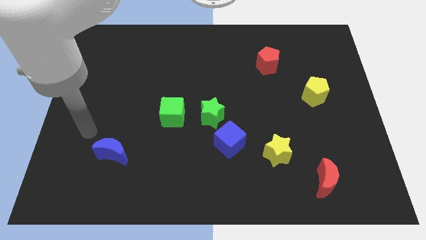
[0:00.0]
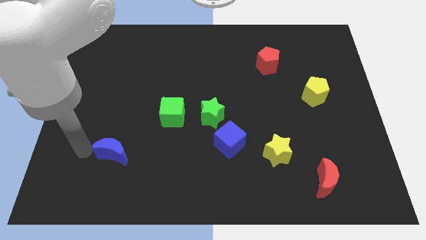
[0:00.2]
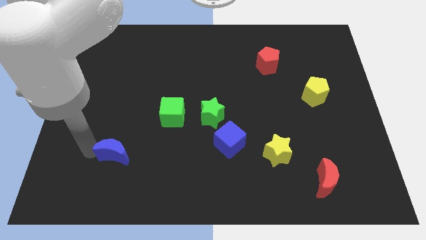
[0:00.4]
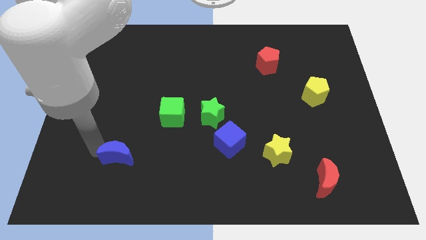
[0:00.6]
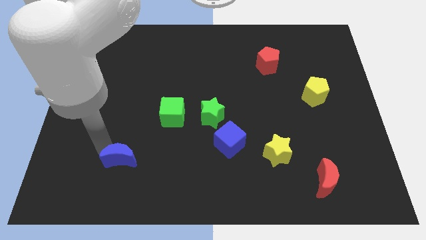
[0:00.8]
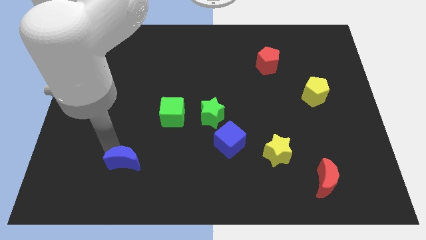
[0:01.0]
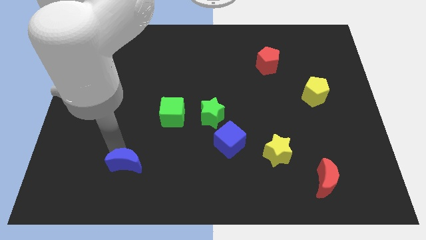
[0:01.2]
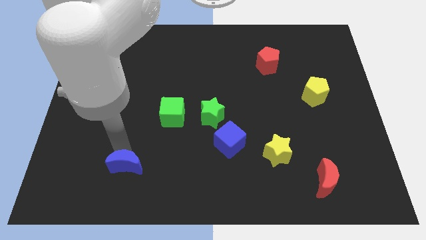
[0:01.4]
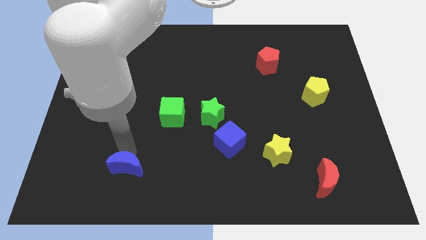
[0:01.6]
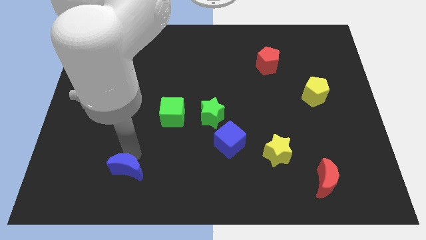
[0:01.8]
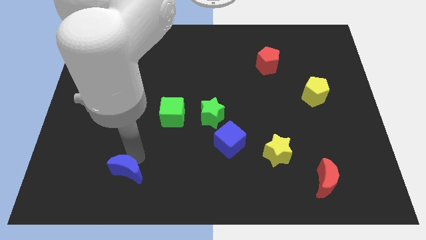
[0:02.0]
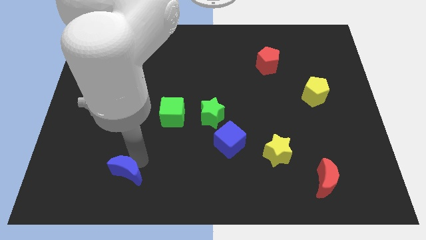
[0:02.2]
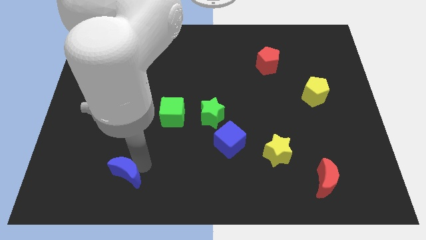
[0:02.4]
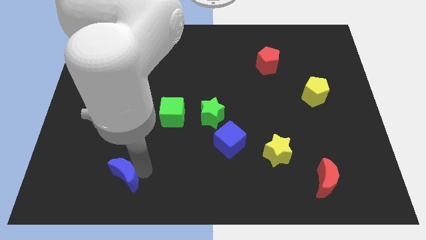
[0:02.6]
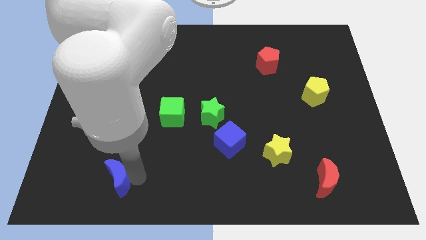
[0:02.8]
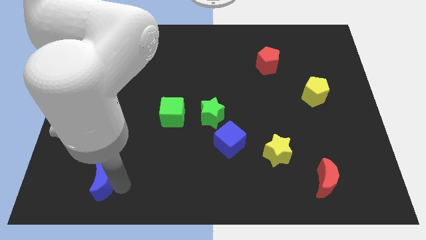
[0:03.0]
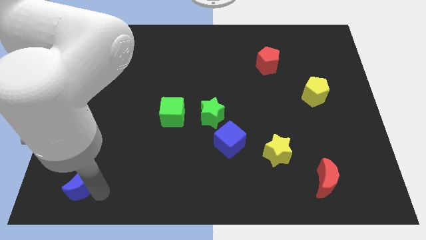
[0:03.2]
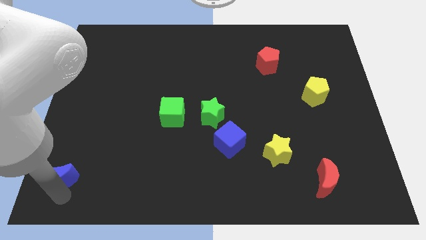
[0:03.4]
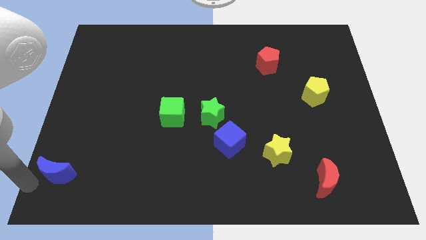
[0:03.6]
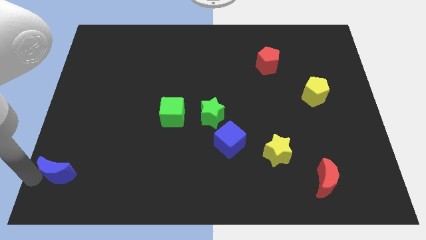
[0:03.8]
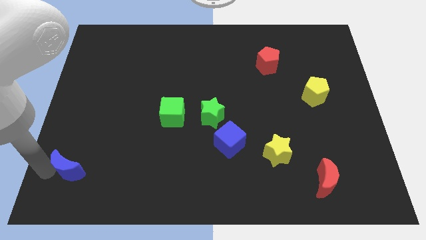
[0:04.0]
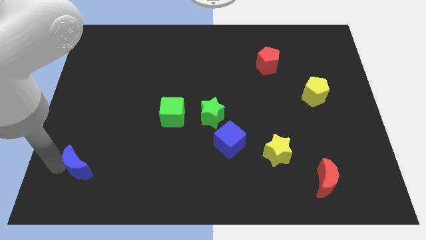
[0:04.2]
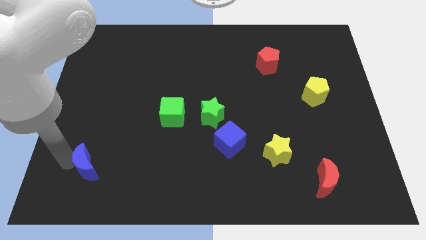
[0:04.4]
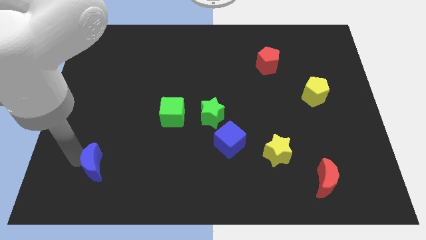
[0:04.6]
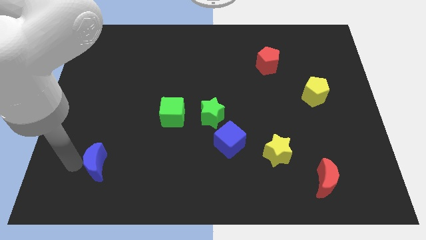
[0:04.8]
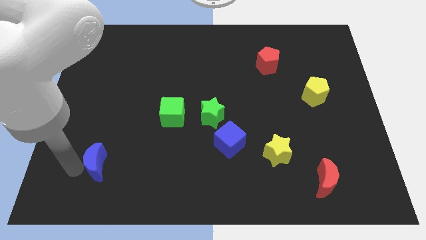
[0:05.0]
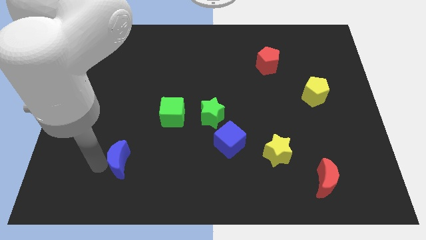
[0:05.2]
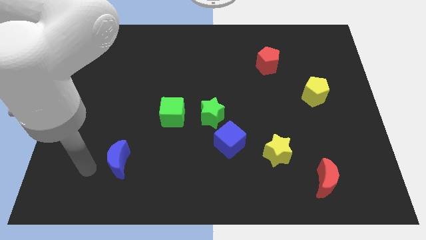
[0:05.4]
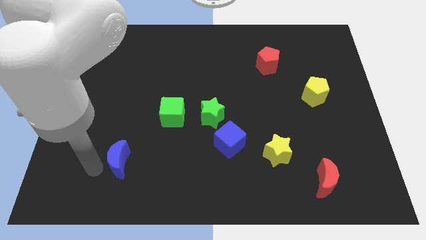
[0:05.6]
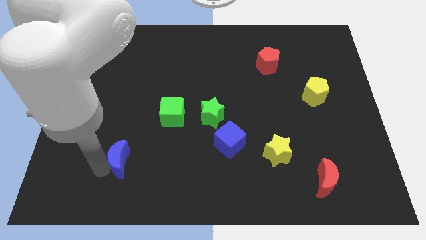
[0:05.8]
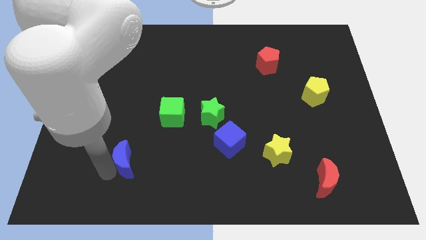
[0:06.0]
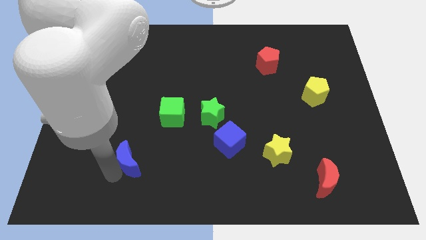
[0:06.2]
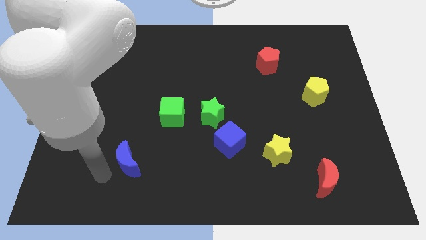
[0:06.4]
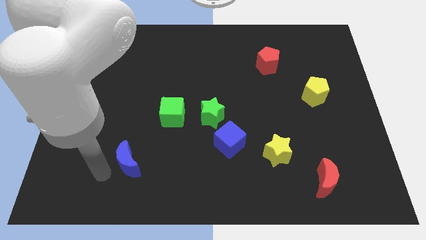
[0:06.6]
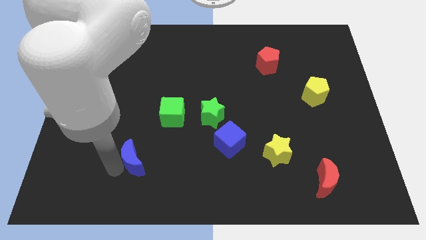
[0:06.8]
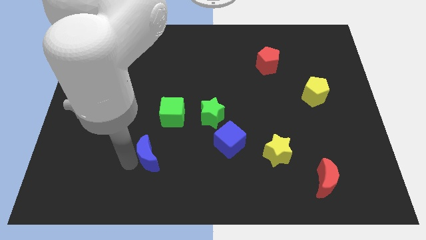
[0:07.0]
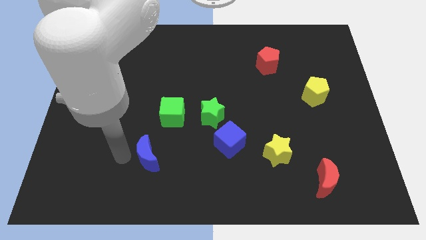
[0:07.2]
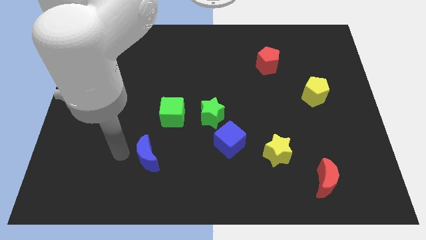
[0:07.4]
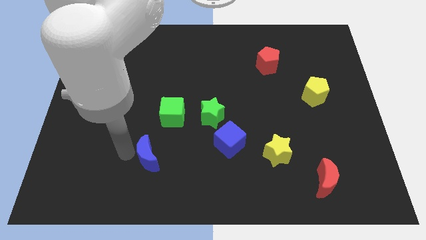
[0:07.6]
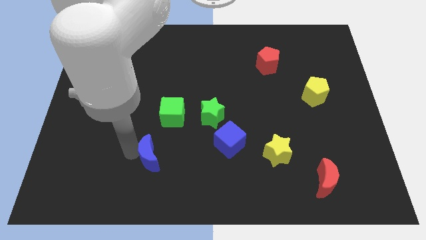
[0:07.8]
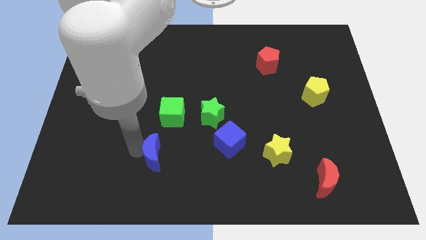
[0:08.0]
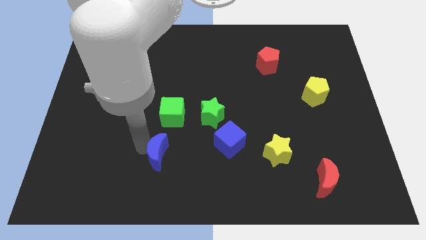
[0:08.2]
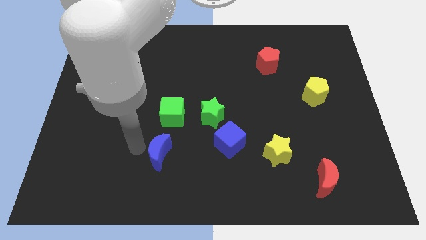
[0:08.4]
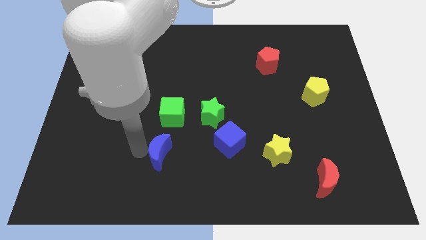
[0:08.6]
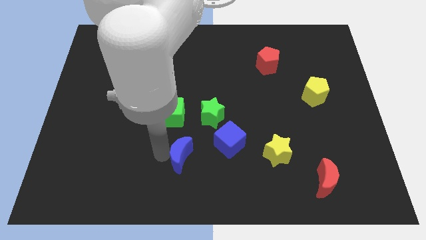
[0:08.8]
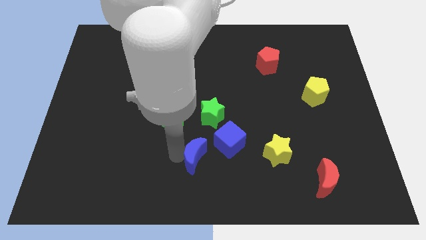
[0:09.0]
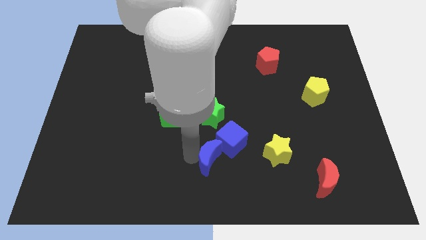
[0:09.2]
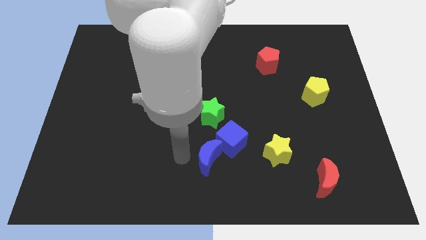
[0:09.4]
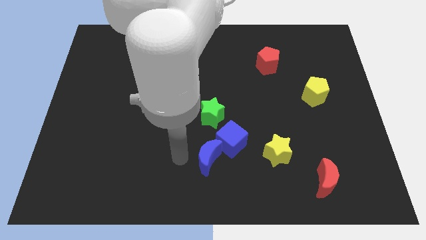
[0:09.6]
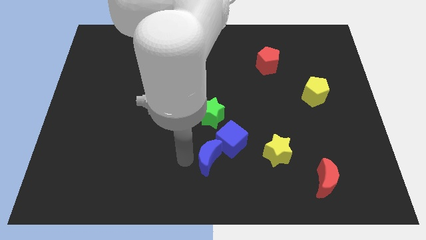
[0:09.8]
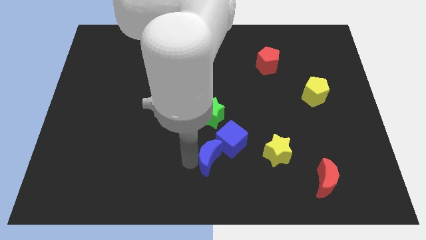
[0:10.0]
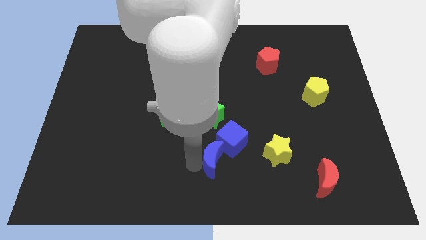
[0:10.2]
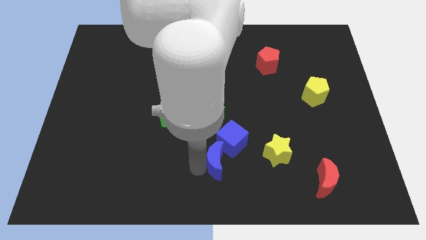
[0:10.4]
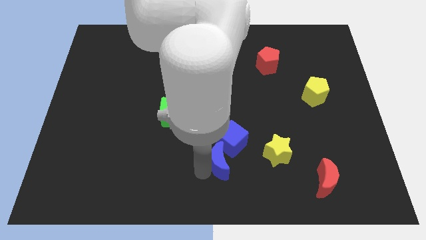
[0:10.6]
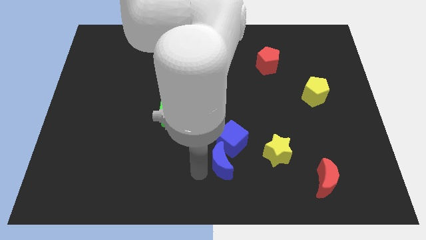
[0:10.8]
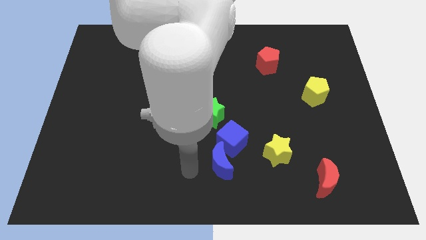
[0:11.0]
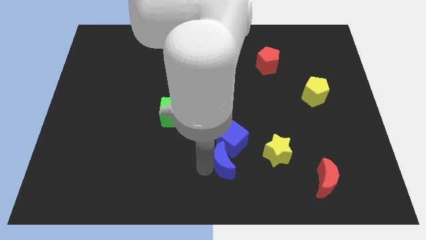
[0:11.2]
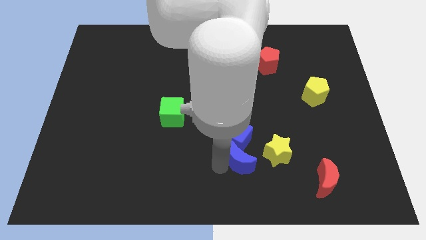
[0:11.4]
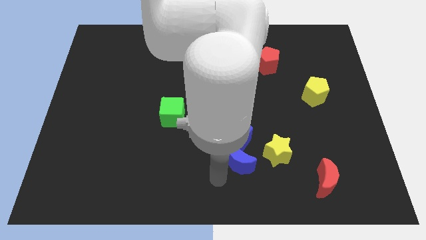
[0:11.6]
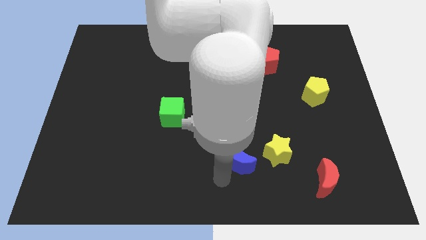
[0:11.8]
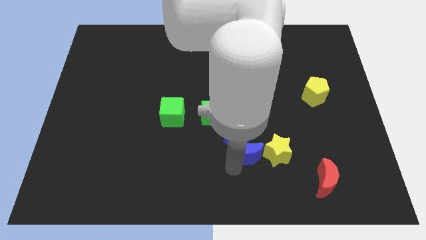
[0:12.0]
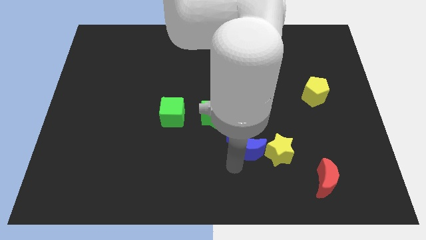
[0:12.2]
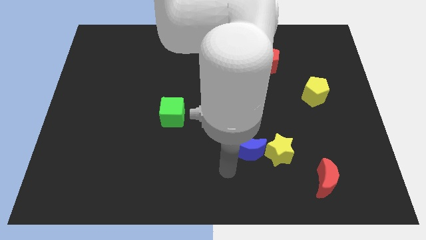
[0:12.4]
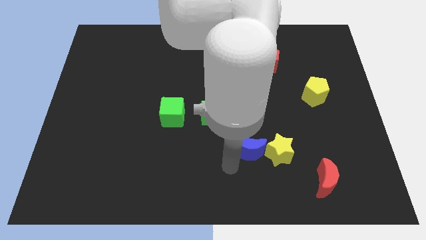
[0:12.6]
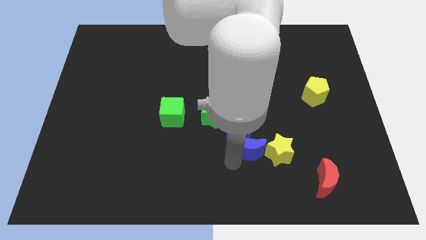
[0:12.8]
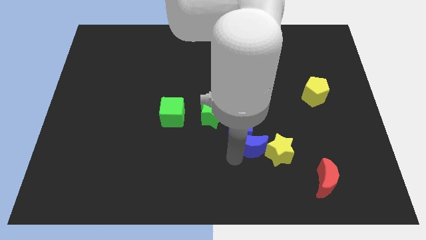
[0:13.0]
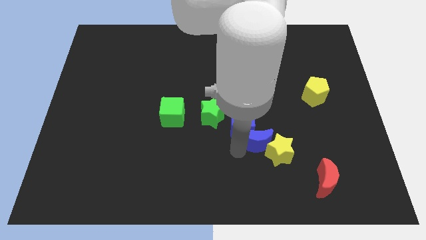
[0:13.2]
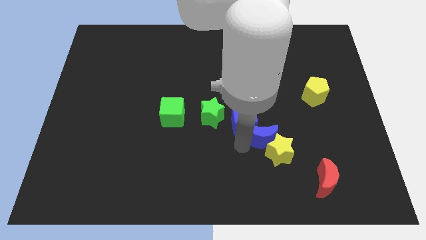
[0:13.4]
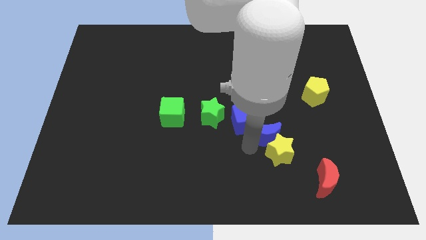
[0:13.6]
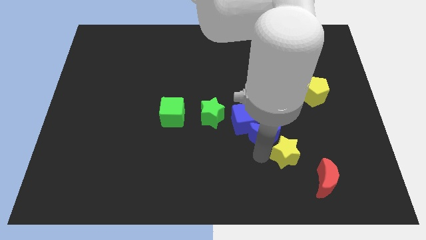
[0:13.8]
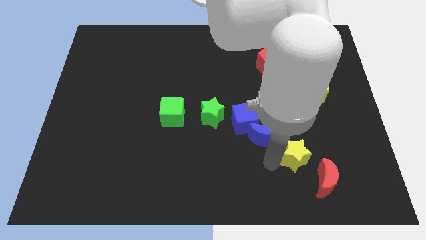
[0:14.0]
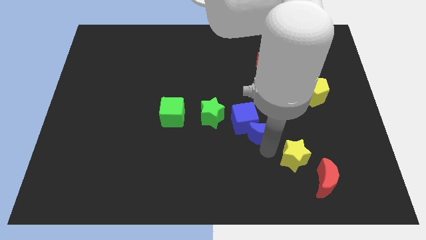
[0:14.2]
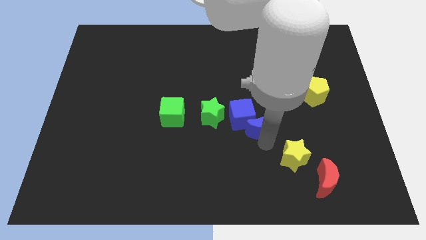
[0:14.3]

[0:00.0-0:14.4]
put the blue moon just right of the green star
